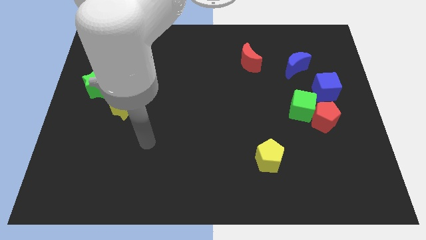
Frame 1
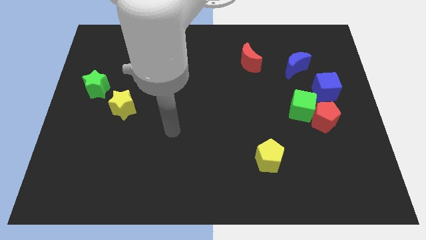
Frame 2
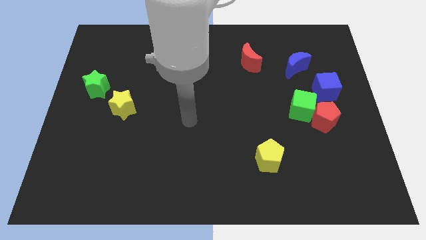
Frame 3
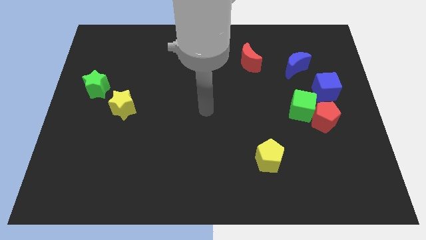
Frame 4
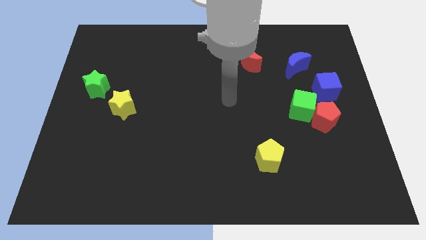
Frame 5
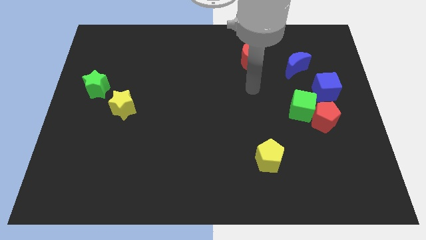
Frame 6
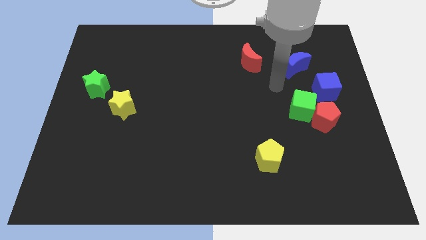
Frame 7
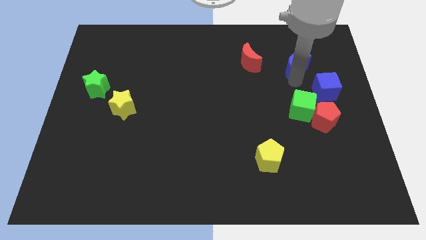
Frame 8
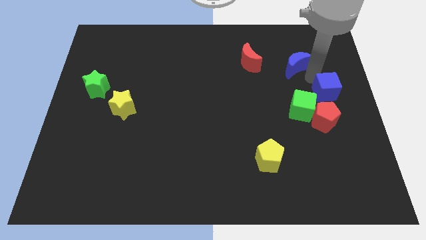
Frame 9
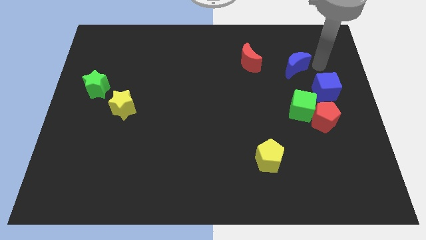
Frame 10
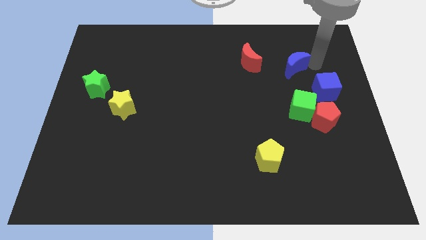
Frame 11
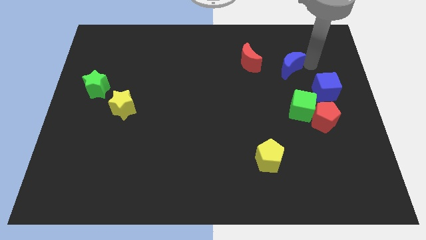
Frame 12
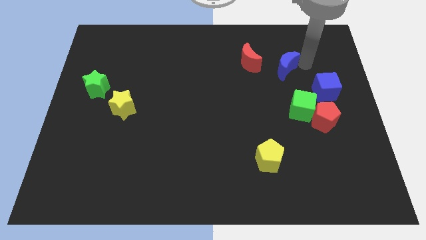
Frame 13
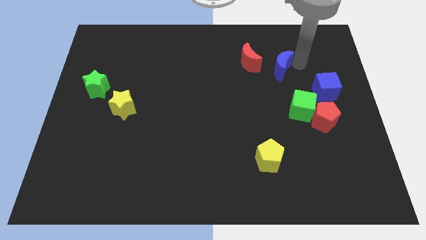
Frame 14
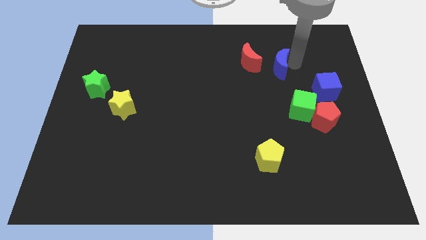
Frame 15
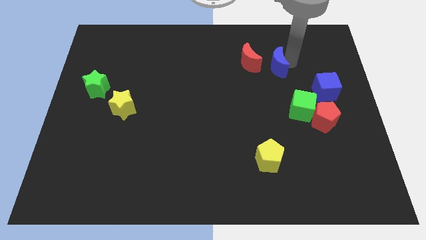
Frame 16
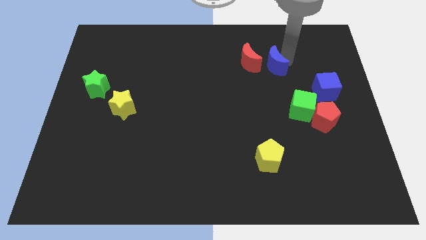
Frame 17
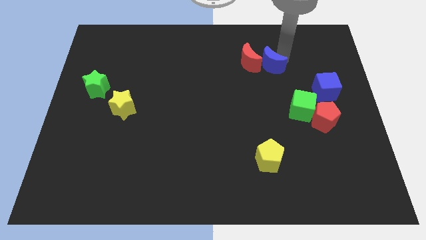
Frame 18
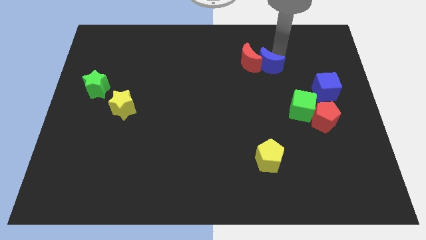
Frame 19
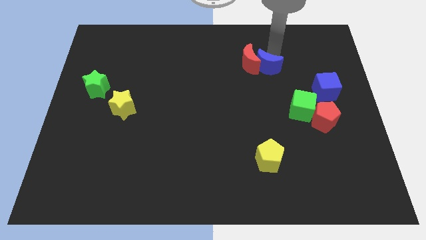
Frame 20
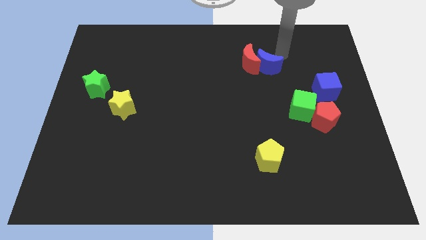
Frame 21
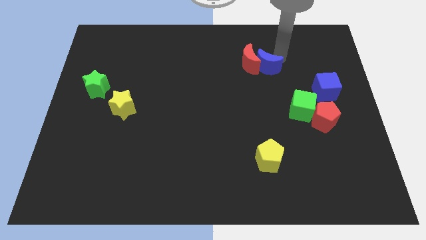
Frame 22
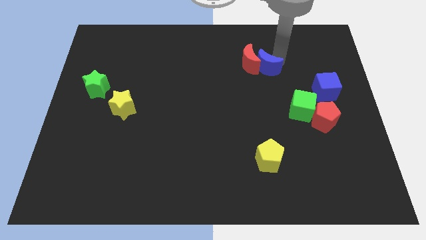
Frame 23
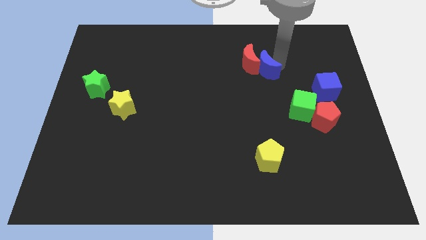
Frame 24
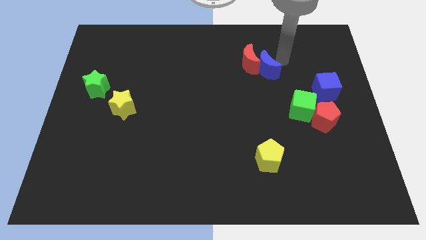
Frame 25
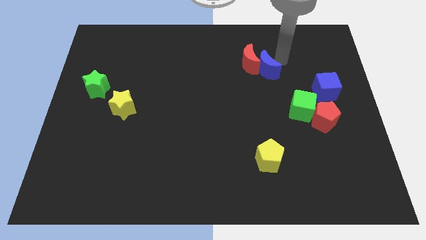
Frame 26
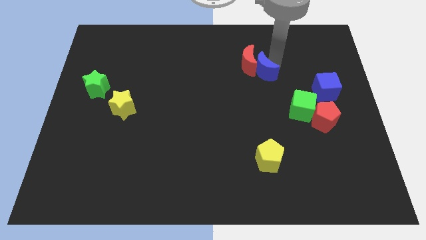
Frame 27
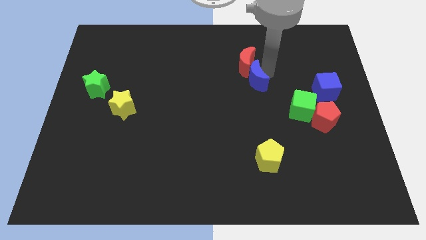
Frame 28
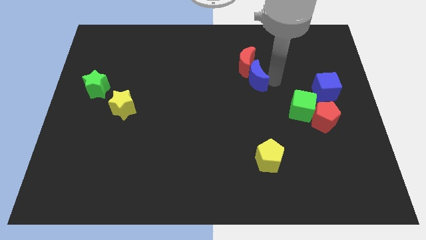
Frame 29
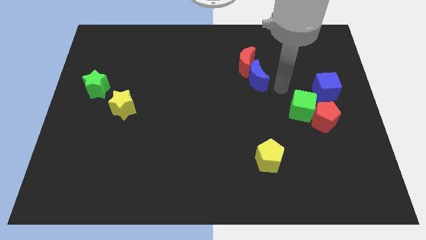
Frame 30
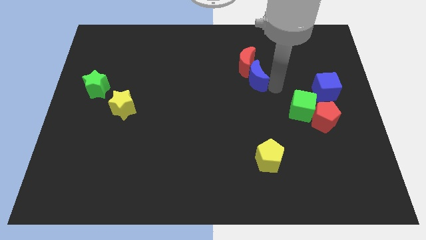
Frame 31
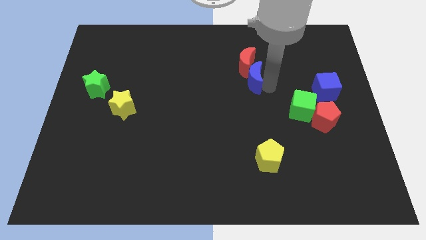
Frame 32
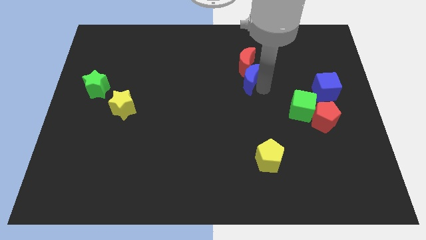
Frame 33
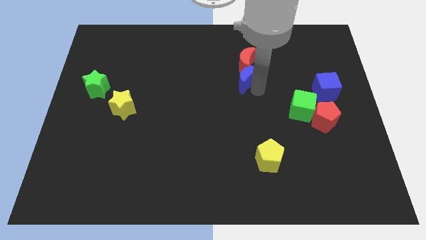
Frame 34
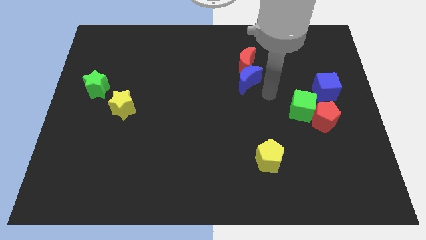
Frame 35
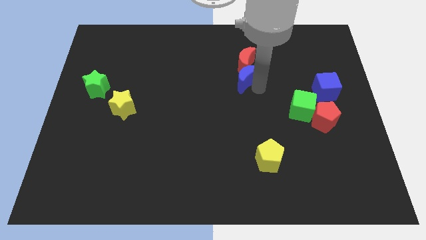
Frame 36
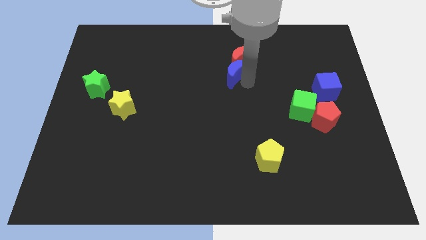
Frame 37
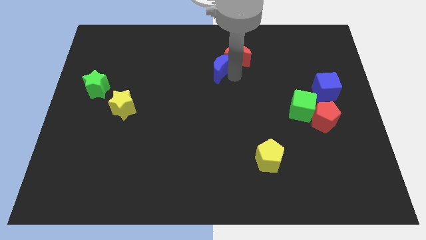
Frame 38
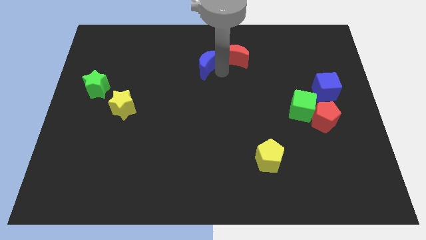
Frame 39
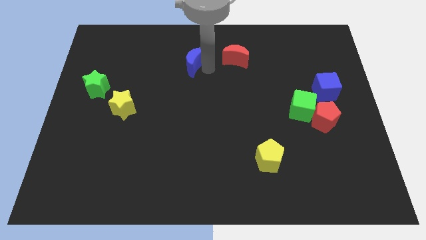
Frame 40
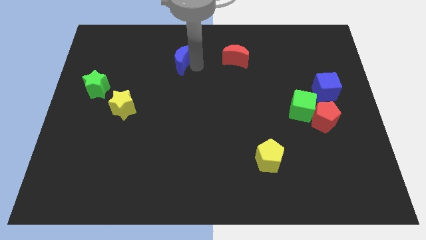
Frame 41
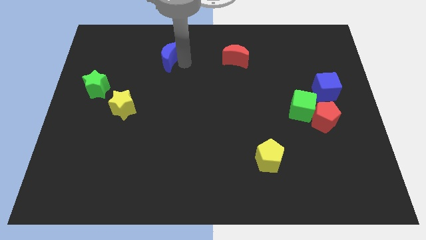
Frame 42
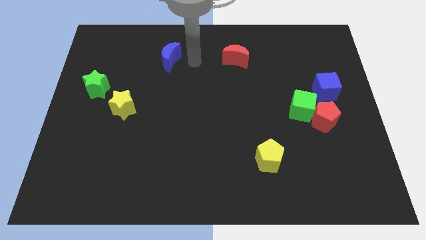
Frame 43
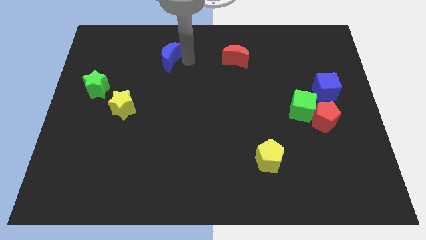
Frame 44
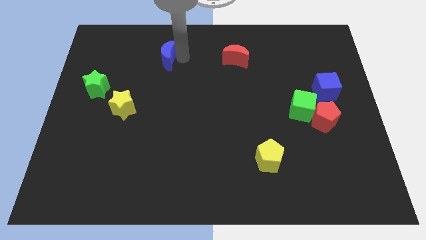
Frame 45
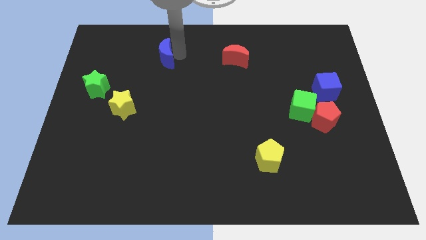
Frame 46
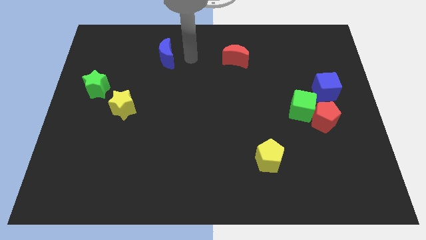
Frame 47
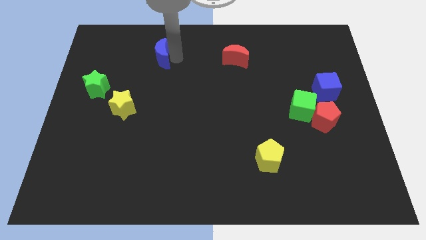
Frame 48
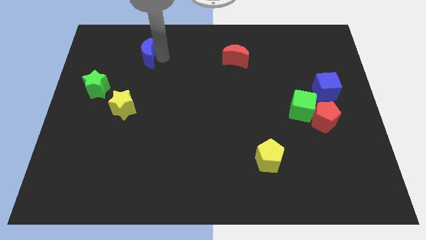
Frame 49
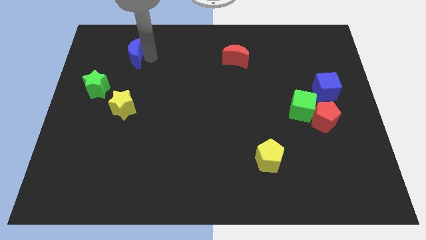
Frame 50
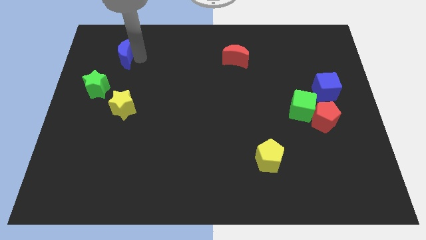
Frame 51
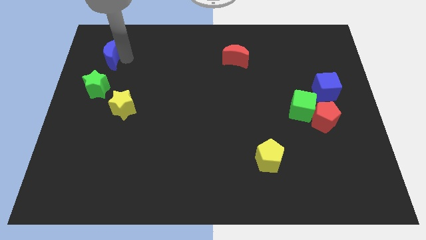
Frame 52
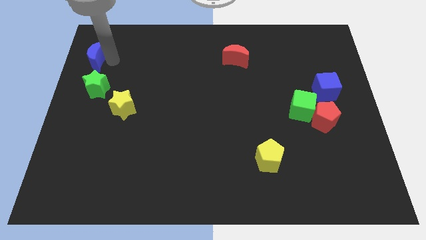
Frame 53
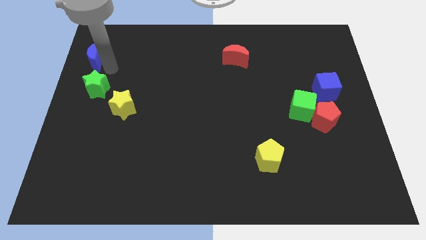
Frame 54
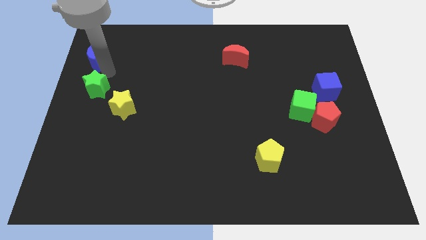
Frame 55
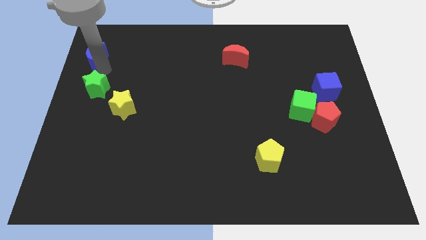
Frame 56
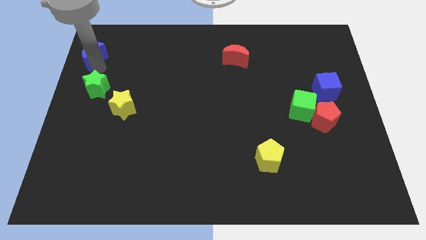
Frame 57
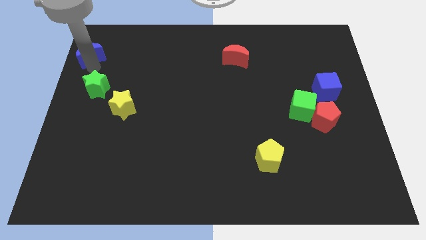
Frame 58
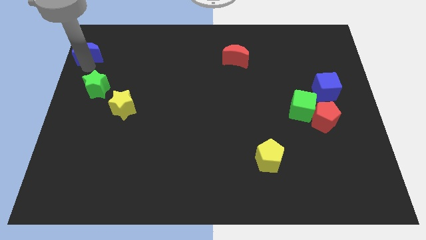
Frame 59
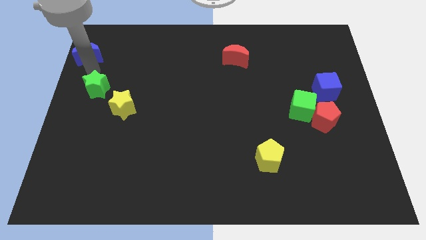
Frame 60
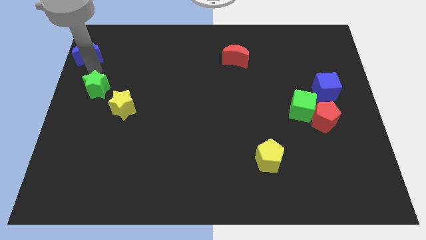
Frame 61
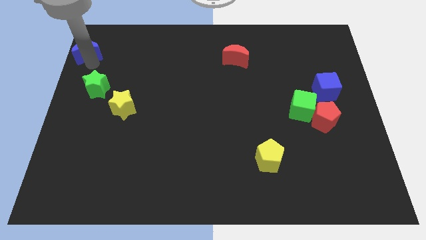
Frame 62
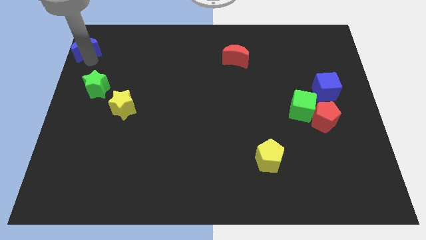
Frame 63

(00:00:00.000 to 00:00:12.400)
put the blue moon to the top left of the board
